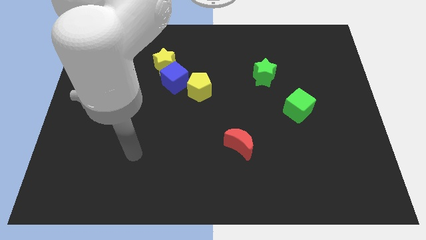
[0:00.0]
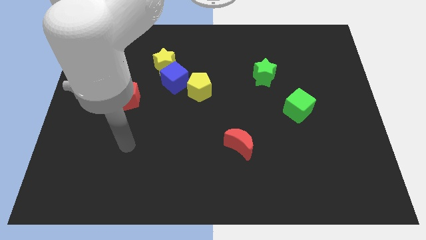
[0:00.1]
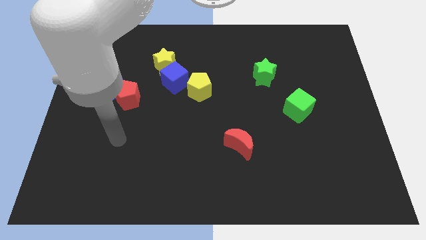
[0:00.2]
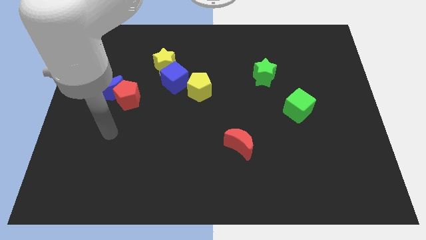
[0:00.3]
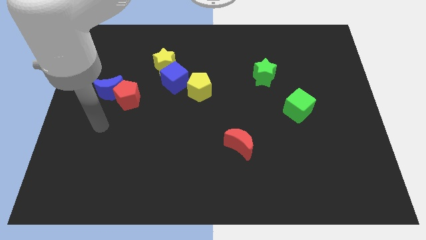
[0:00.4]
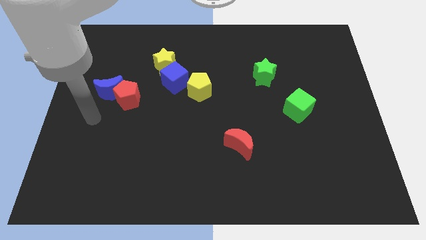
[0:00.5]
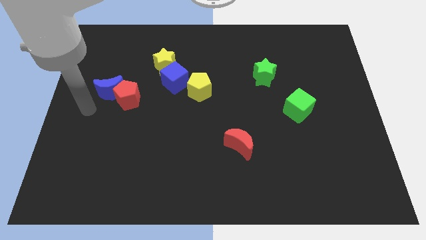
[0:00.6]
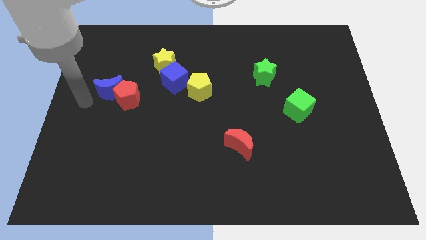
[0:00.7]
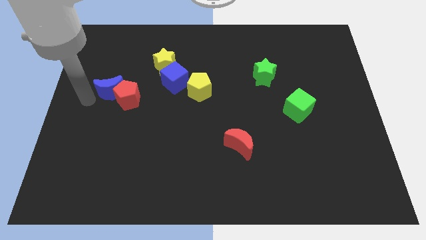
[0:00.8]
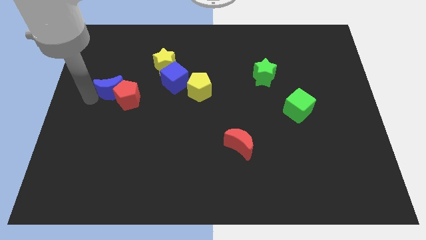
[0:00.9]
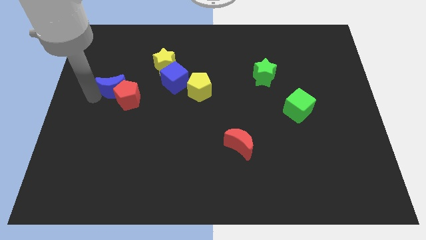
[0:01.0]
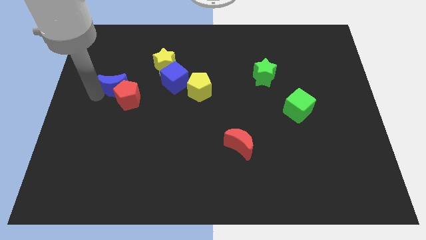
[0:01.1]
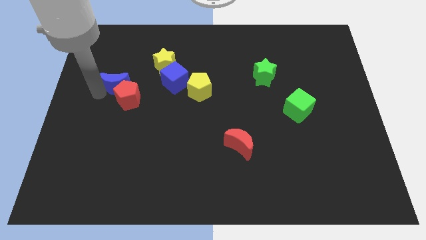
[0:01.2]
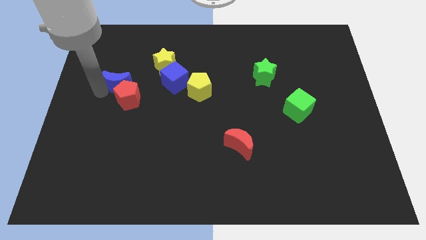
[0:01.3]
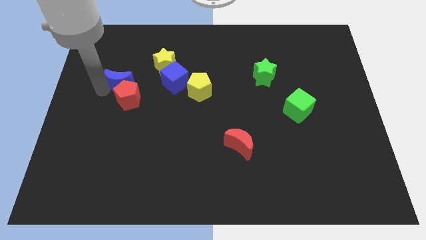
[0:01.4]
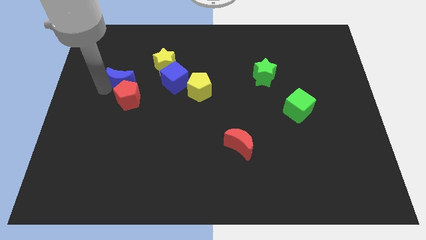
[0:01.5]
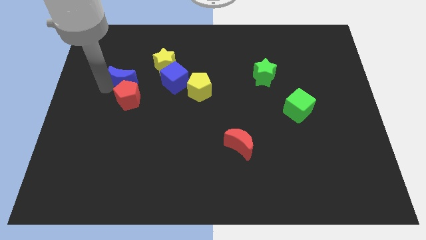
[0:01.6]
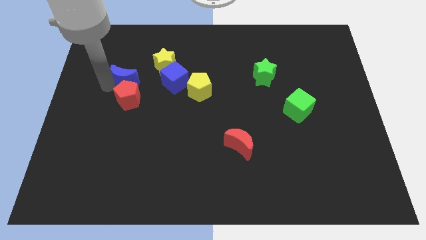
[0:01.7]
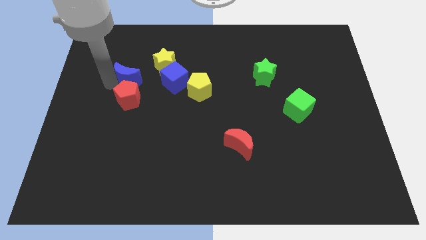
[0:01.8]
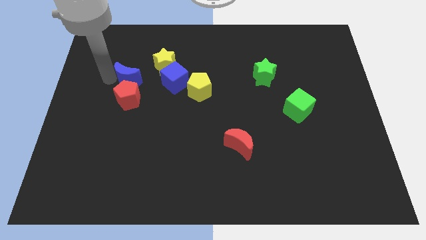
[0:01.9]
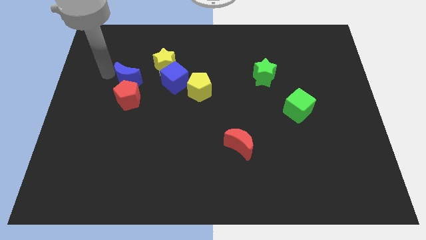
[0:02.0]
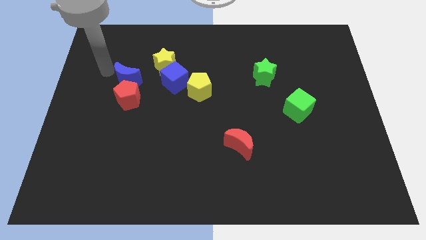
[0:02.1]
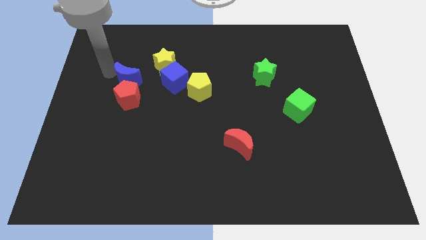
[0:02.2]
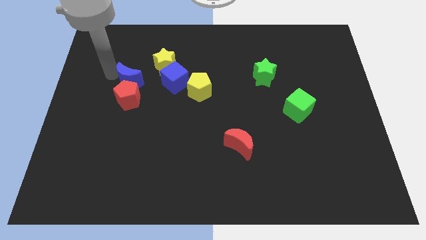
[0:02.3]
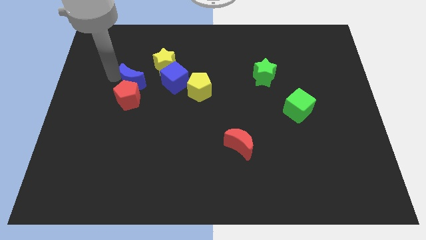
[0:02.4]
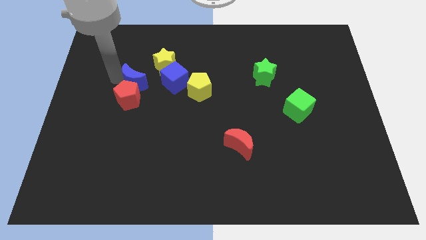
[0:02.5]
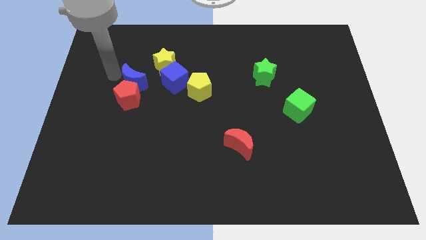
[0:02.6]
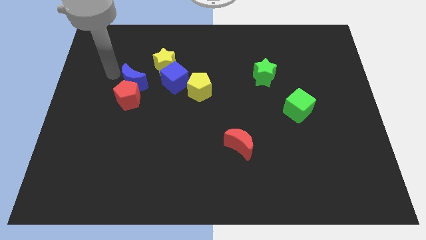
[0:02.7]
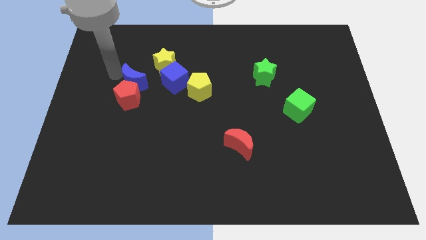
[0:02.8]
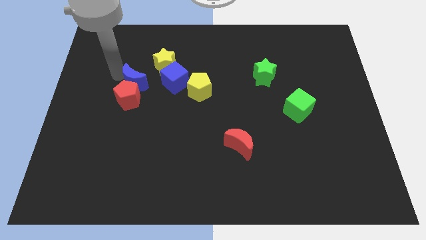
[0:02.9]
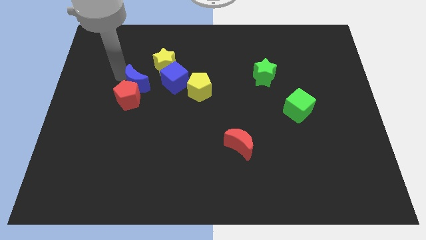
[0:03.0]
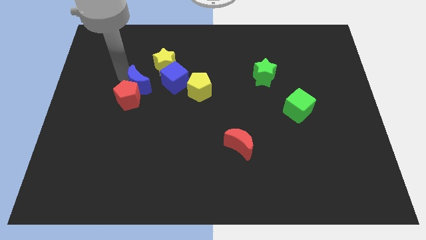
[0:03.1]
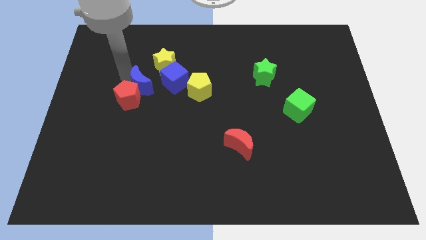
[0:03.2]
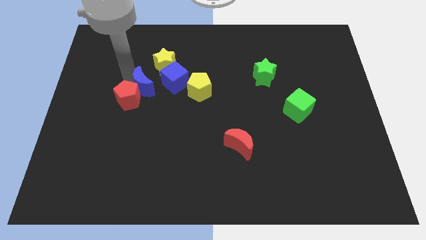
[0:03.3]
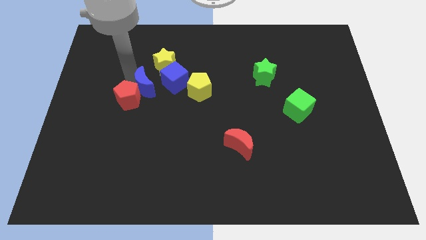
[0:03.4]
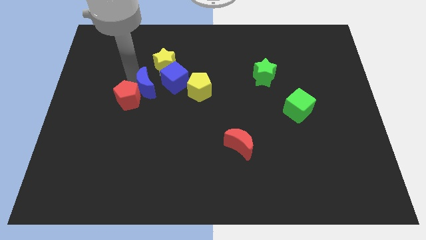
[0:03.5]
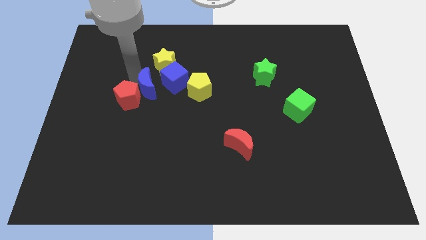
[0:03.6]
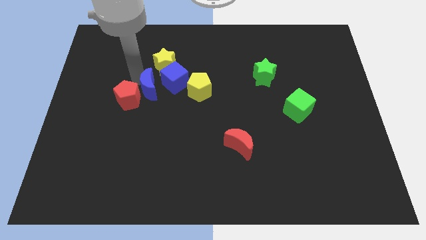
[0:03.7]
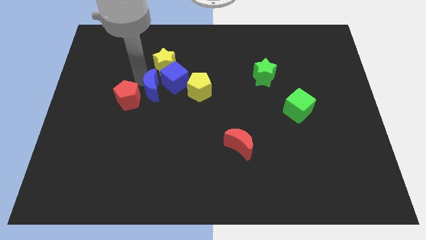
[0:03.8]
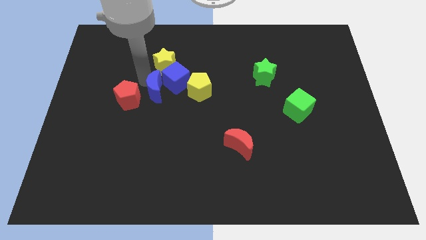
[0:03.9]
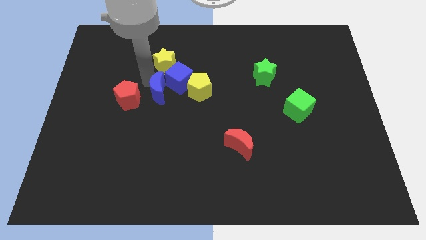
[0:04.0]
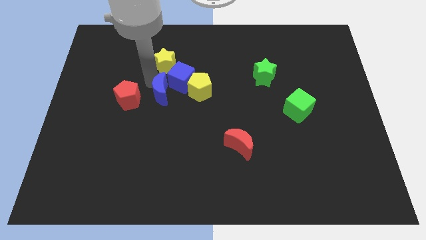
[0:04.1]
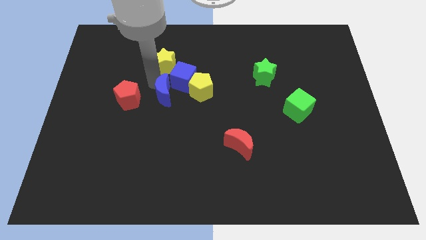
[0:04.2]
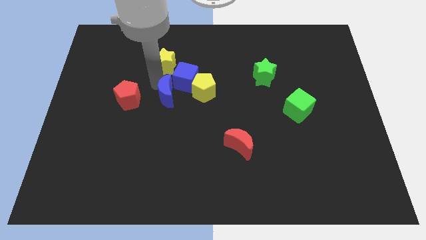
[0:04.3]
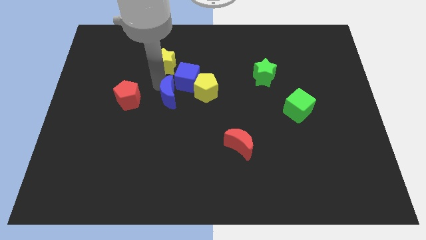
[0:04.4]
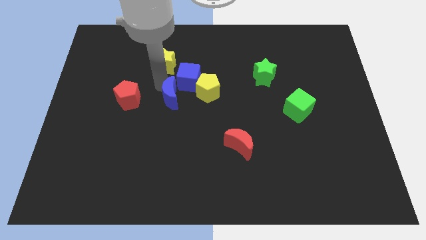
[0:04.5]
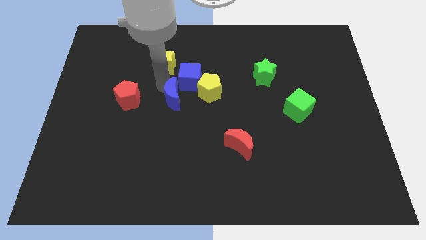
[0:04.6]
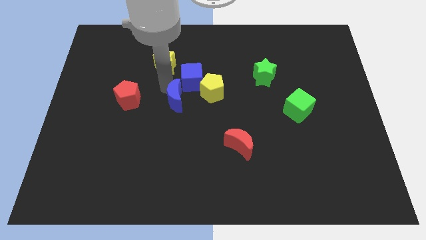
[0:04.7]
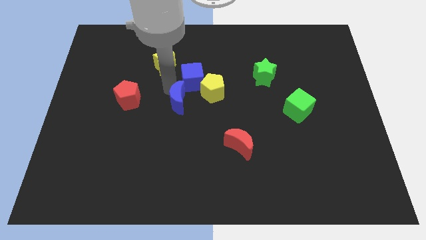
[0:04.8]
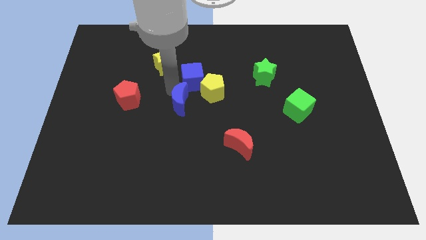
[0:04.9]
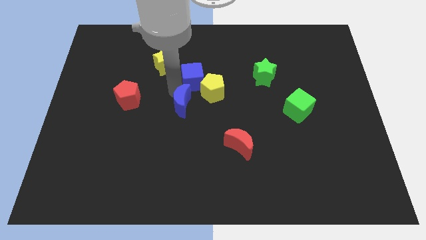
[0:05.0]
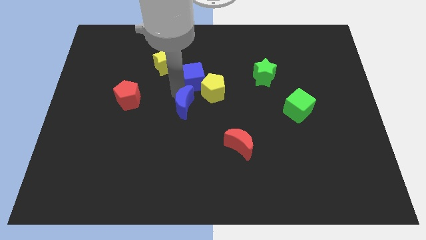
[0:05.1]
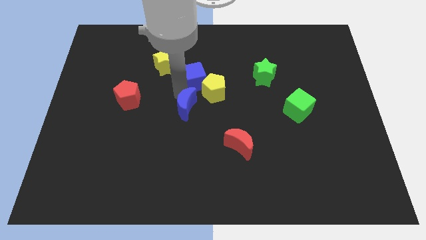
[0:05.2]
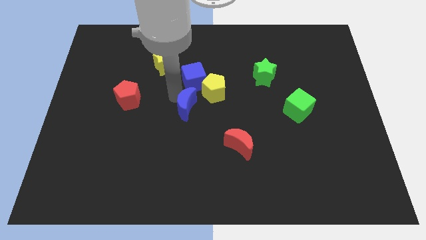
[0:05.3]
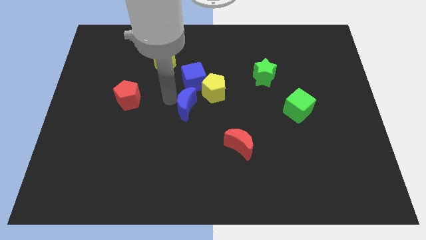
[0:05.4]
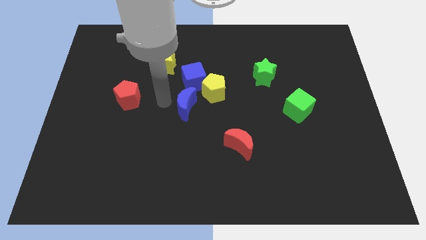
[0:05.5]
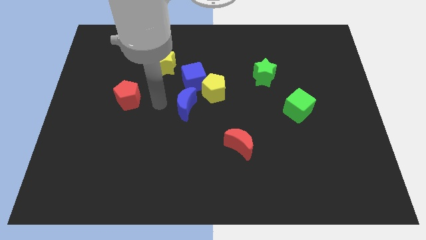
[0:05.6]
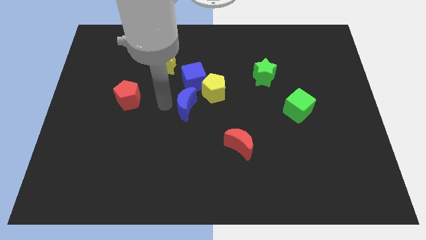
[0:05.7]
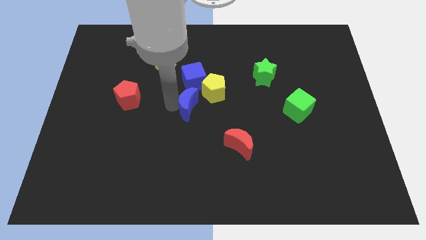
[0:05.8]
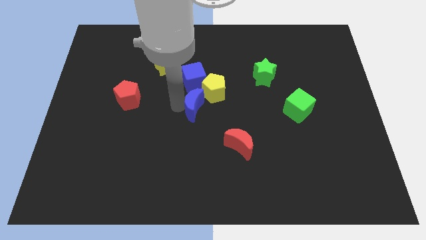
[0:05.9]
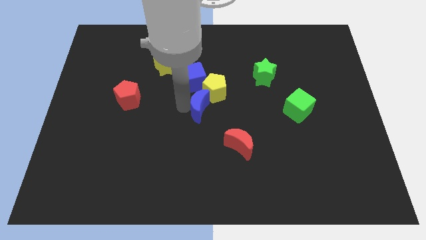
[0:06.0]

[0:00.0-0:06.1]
move the blue moon to the right

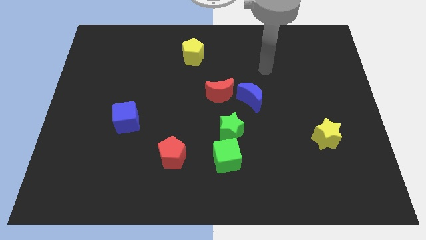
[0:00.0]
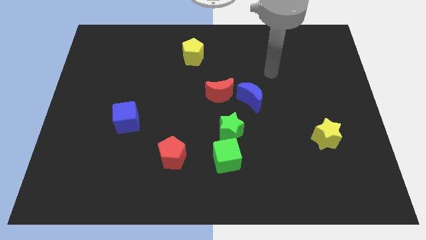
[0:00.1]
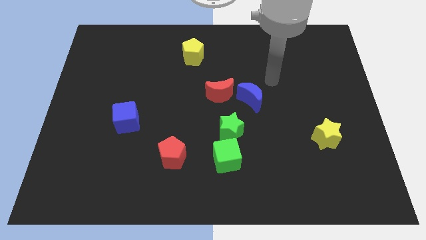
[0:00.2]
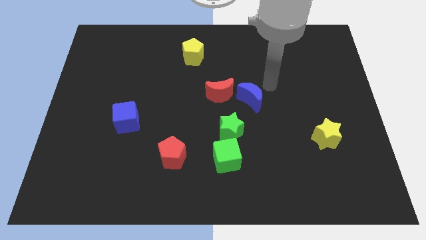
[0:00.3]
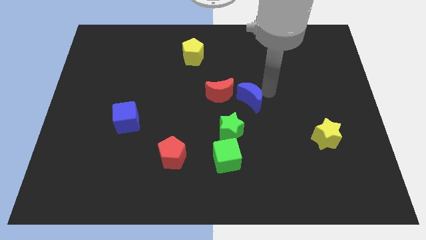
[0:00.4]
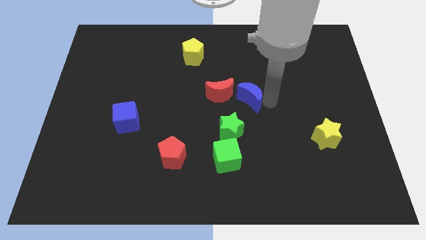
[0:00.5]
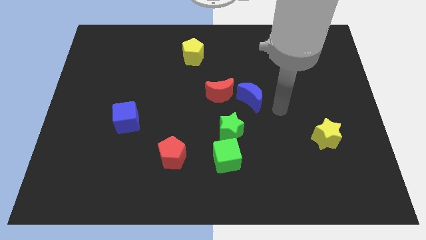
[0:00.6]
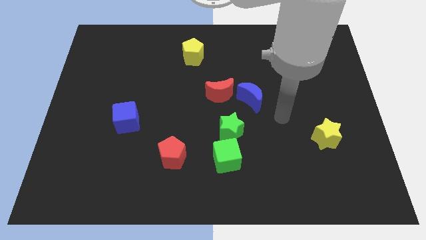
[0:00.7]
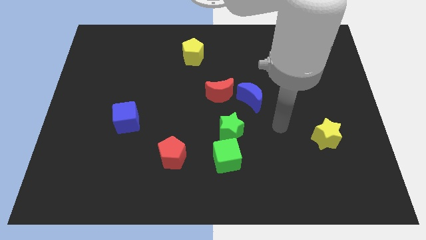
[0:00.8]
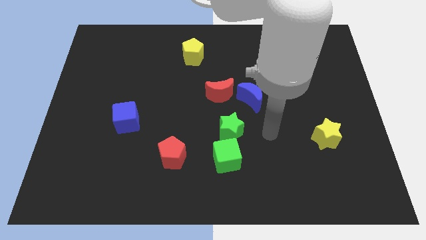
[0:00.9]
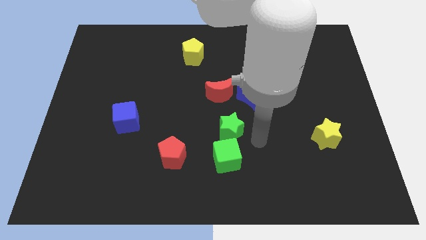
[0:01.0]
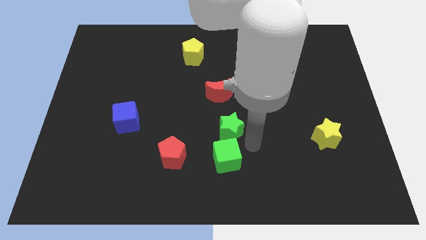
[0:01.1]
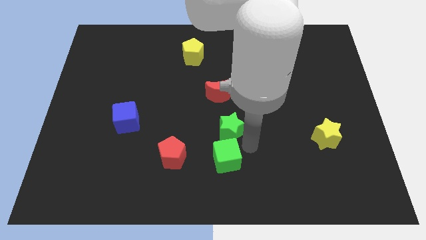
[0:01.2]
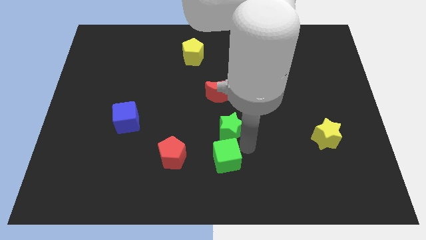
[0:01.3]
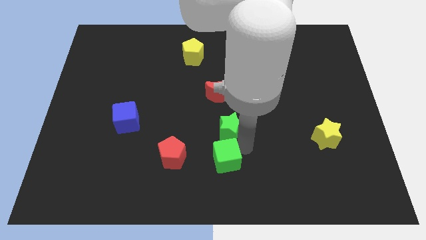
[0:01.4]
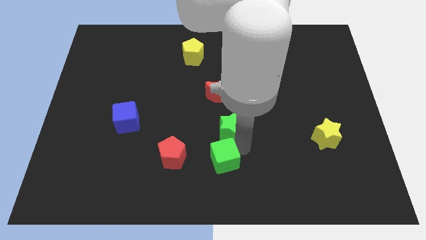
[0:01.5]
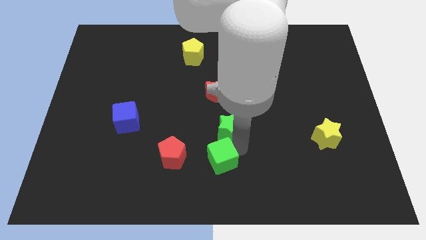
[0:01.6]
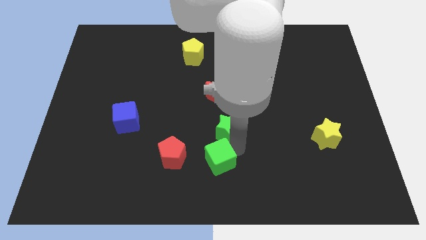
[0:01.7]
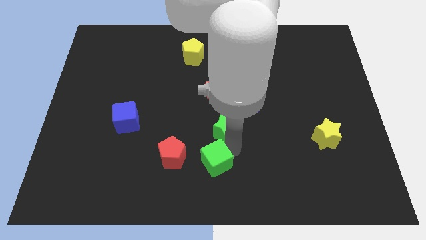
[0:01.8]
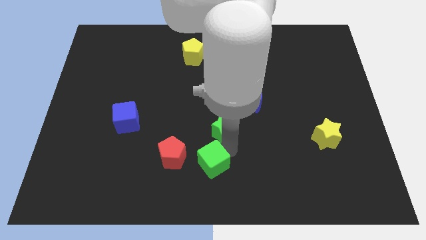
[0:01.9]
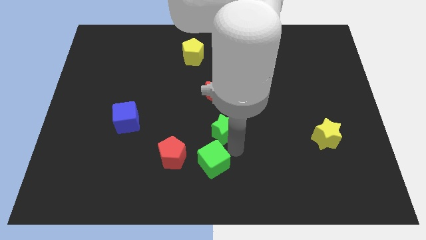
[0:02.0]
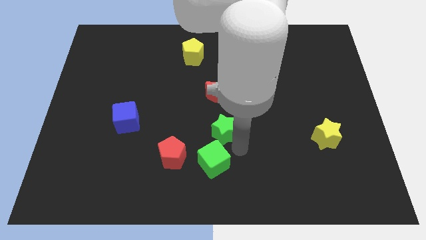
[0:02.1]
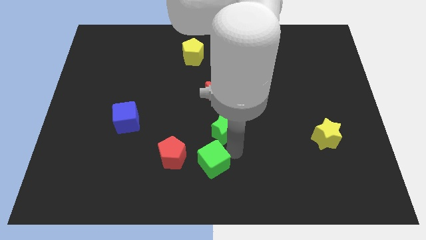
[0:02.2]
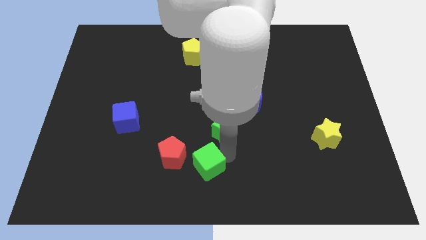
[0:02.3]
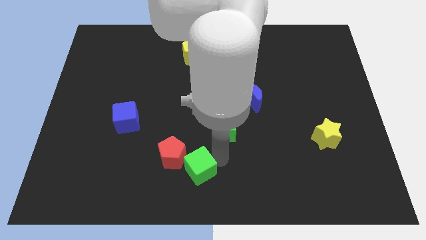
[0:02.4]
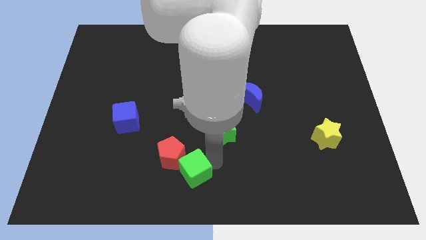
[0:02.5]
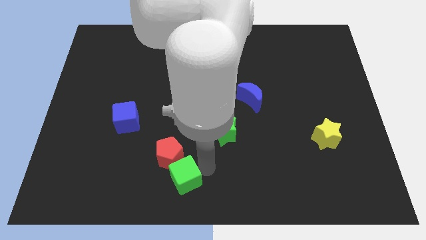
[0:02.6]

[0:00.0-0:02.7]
slide the green cube a little to the left
